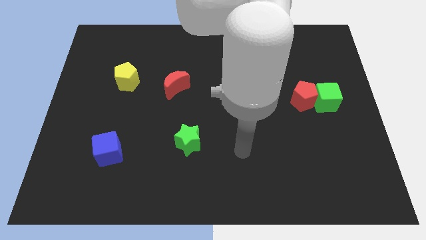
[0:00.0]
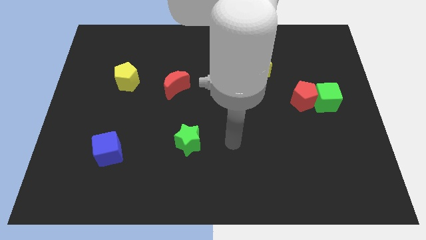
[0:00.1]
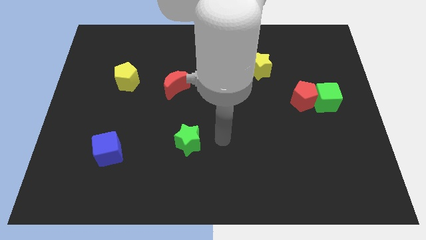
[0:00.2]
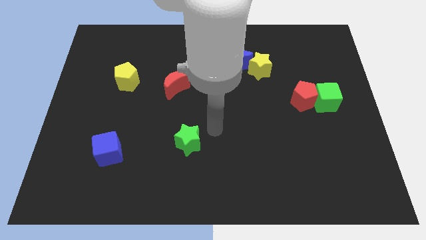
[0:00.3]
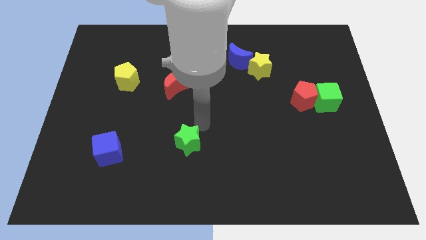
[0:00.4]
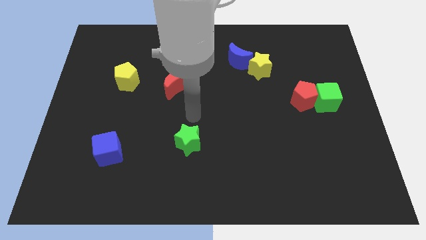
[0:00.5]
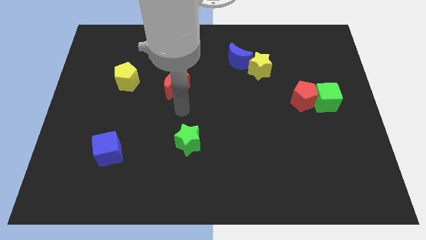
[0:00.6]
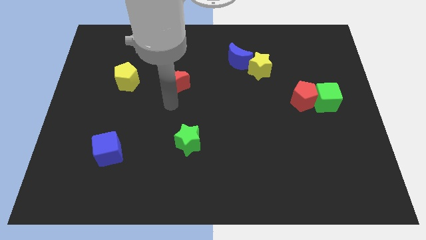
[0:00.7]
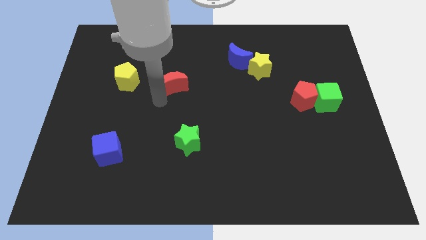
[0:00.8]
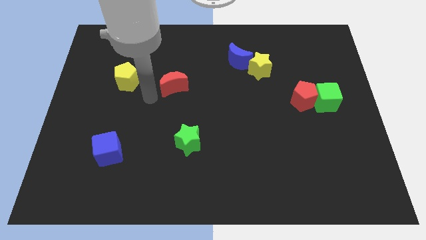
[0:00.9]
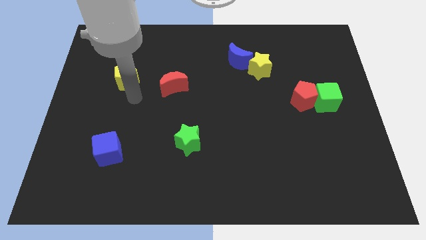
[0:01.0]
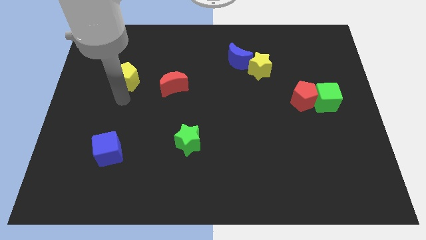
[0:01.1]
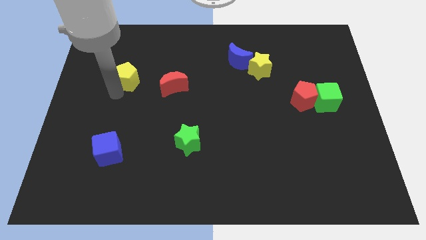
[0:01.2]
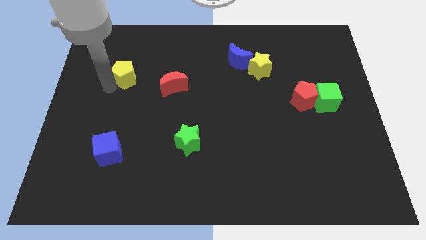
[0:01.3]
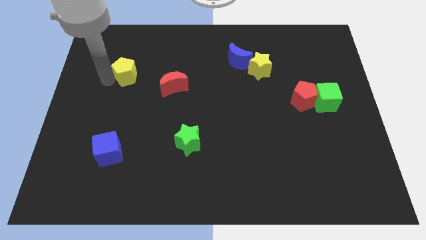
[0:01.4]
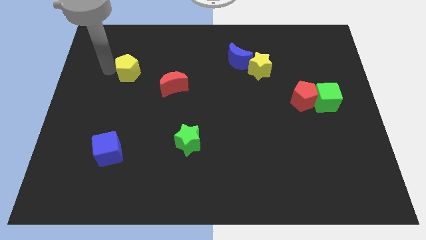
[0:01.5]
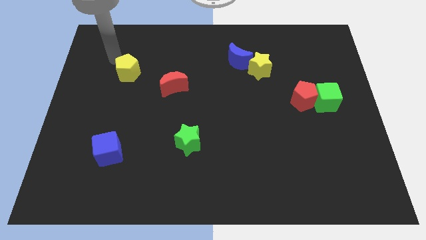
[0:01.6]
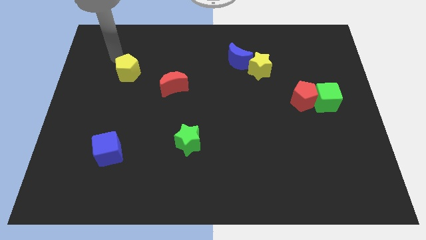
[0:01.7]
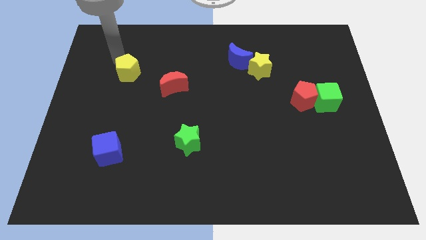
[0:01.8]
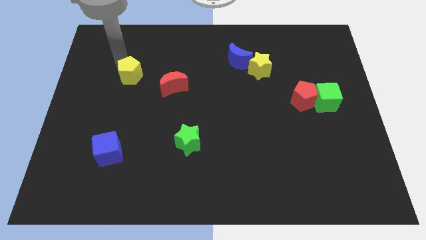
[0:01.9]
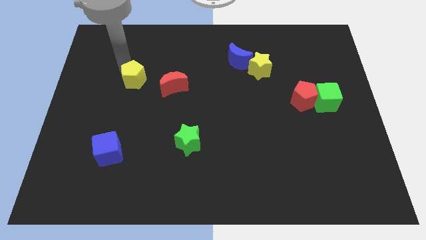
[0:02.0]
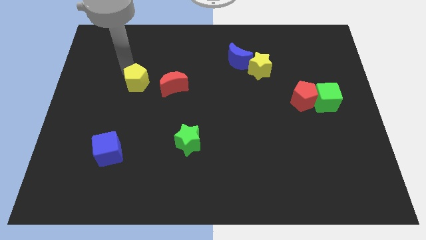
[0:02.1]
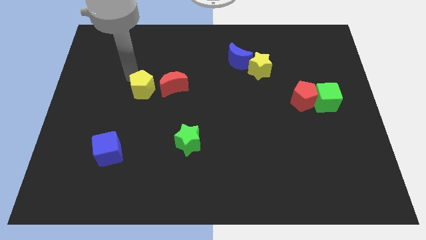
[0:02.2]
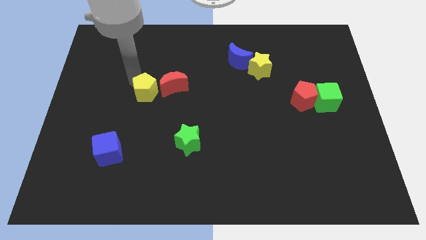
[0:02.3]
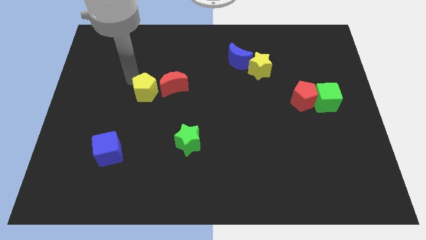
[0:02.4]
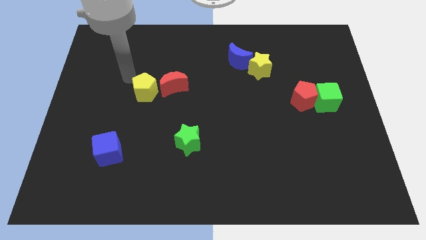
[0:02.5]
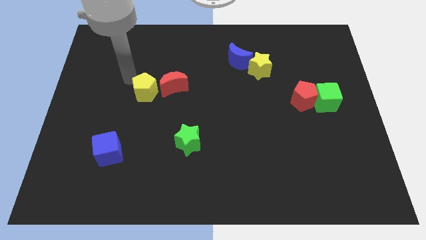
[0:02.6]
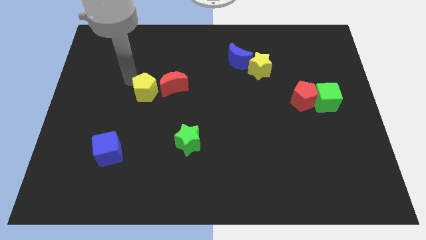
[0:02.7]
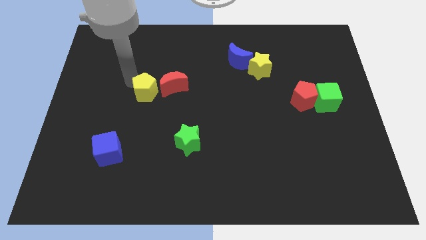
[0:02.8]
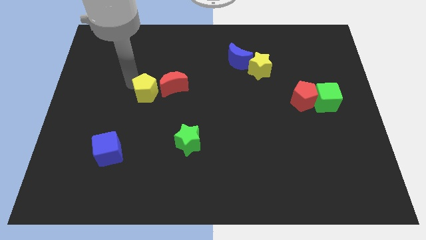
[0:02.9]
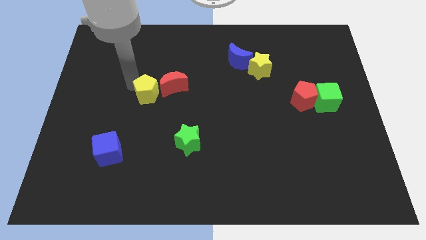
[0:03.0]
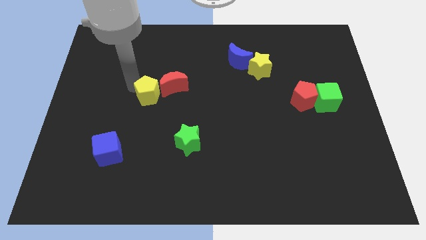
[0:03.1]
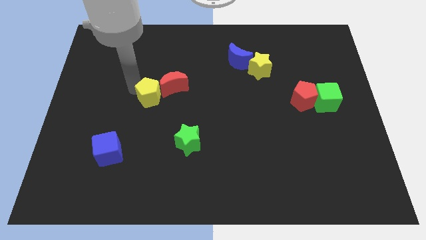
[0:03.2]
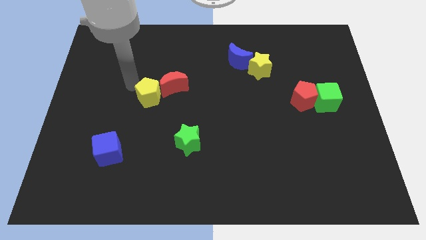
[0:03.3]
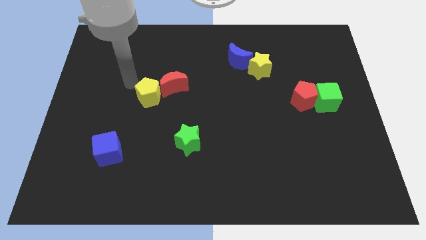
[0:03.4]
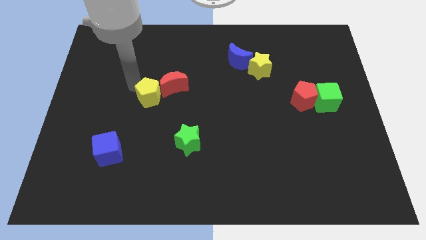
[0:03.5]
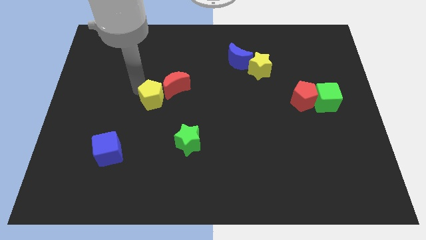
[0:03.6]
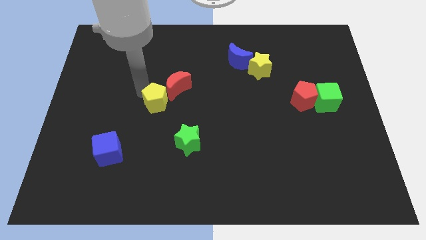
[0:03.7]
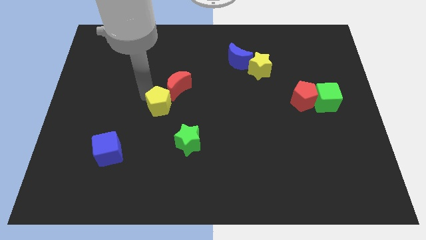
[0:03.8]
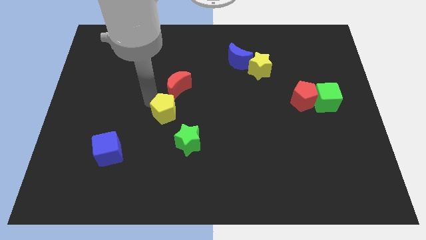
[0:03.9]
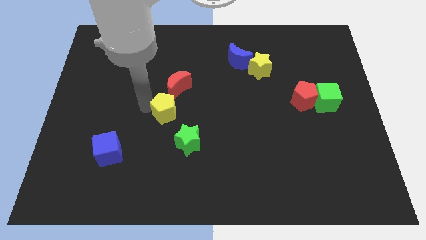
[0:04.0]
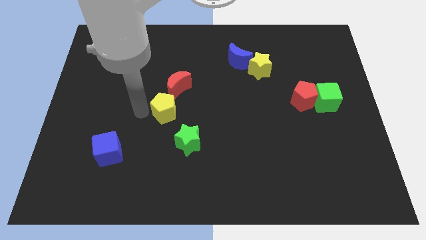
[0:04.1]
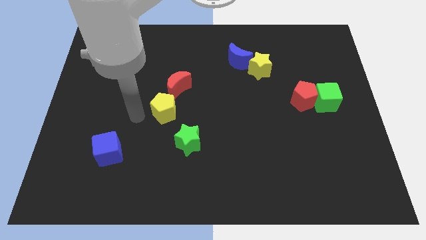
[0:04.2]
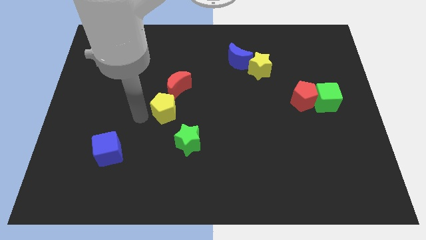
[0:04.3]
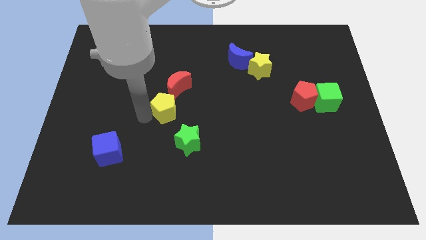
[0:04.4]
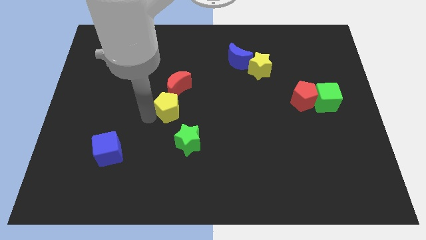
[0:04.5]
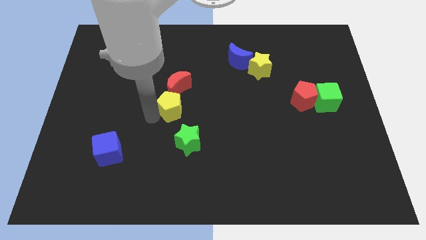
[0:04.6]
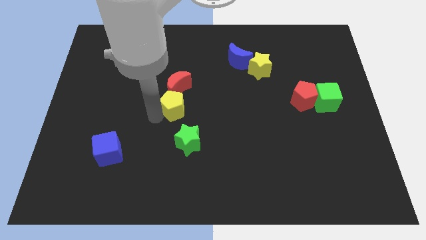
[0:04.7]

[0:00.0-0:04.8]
put the yellow pentagon to the bottom right side of the red moon

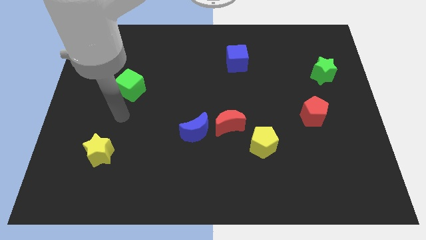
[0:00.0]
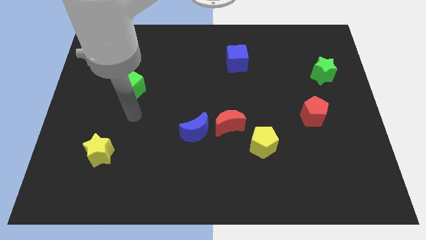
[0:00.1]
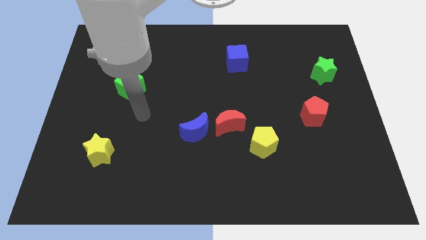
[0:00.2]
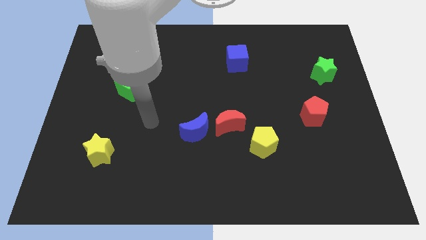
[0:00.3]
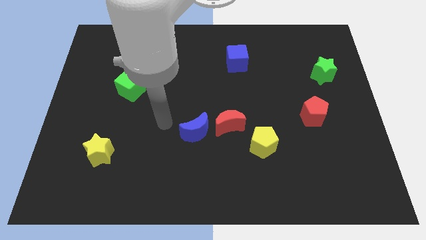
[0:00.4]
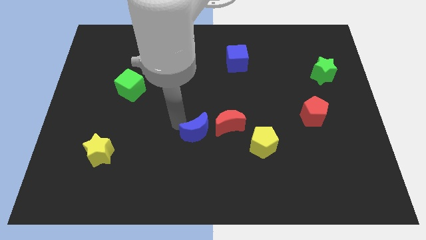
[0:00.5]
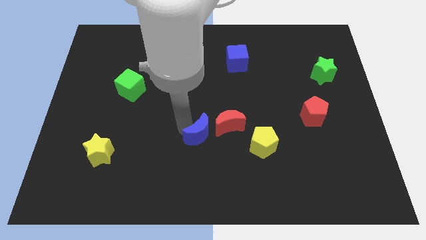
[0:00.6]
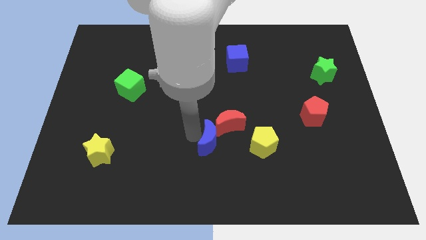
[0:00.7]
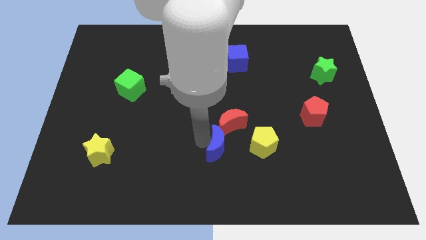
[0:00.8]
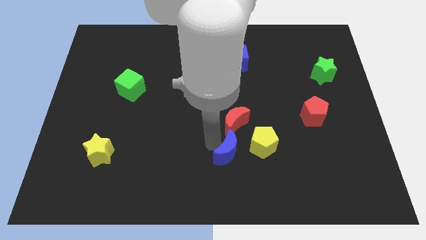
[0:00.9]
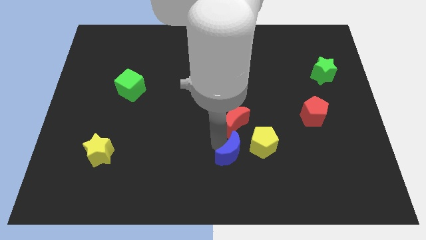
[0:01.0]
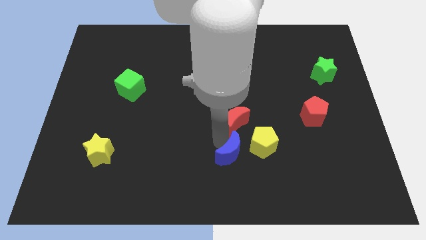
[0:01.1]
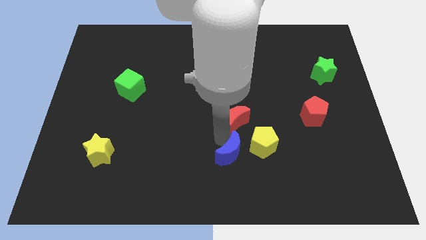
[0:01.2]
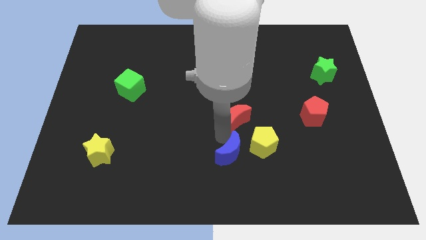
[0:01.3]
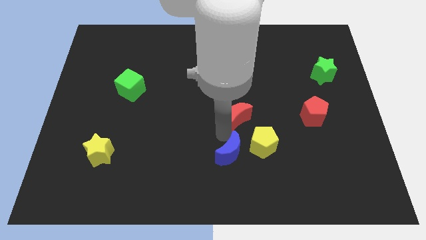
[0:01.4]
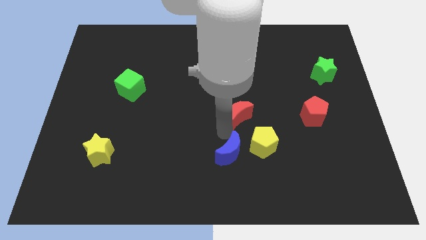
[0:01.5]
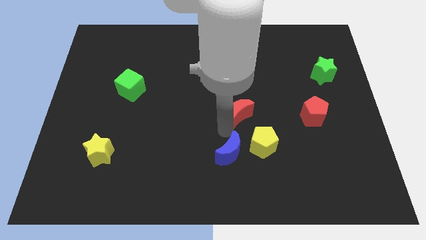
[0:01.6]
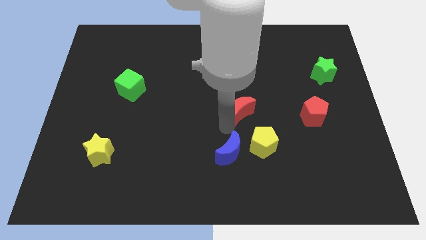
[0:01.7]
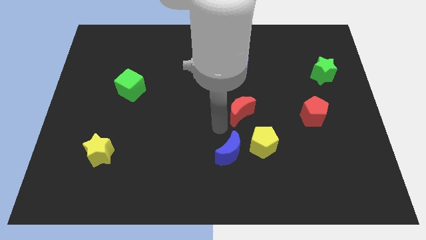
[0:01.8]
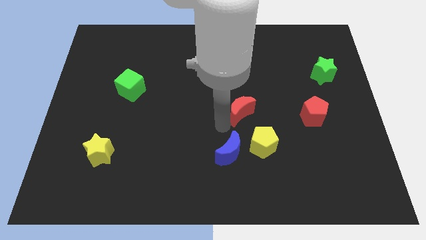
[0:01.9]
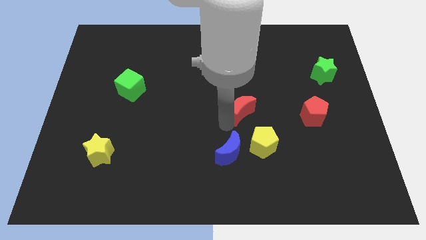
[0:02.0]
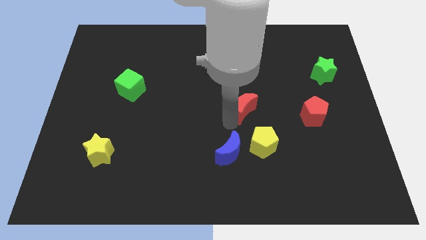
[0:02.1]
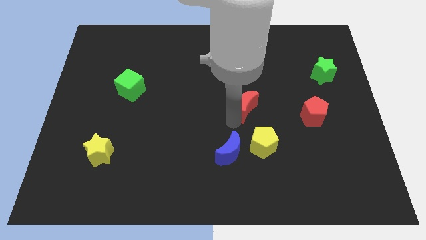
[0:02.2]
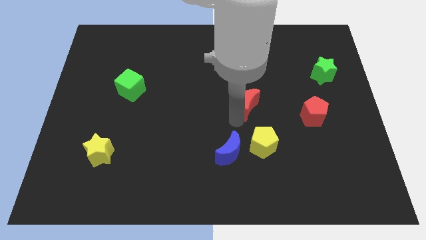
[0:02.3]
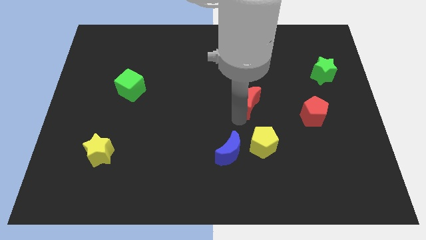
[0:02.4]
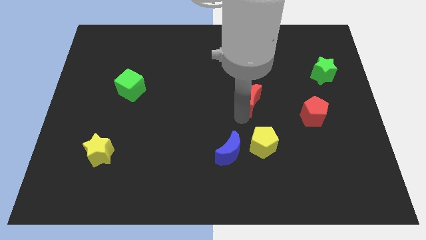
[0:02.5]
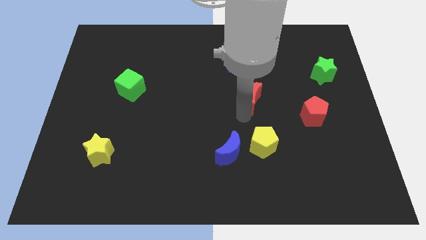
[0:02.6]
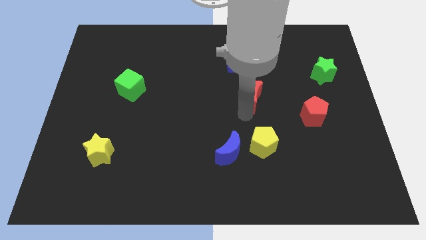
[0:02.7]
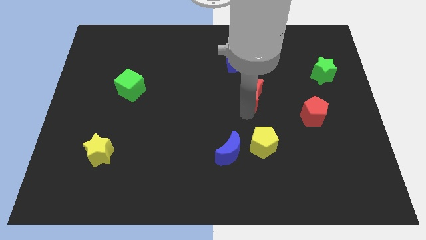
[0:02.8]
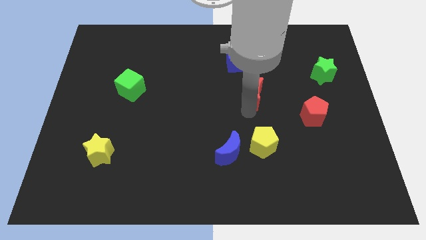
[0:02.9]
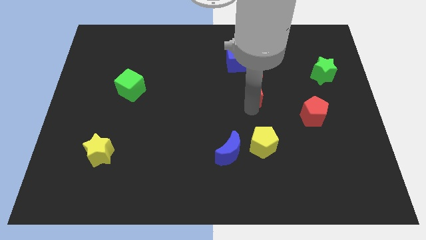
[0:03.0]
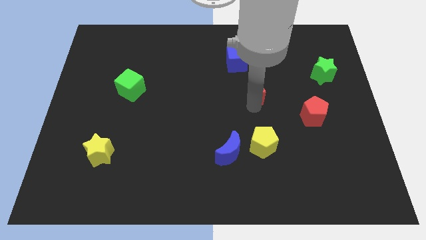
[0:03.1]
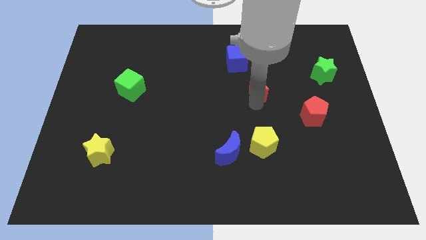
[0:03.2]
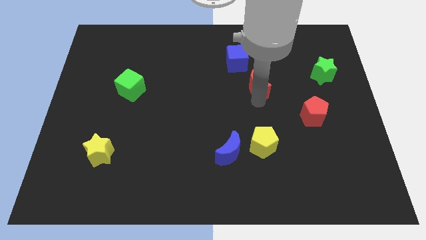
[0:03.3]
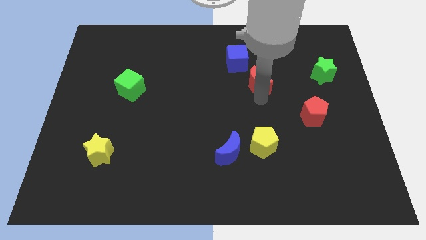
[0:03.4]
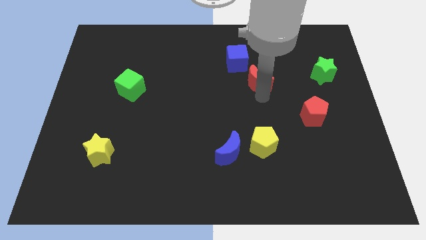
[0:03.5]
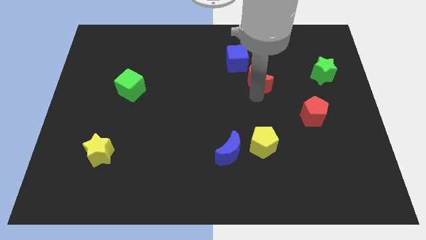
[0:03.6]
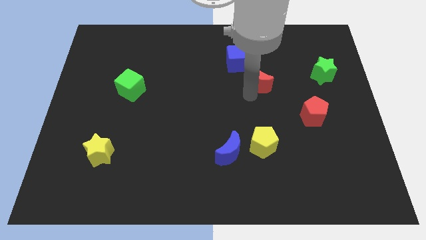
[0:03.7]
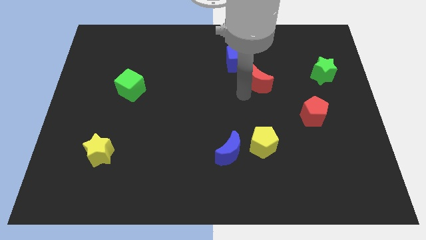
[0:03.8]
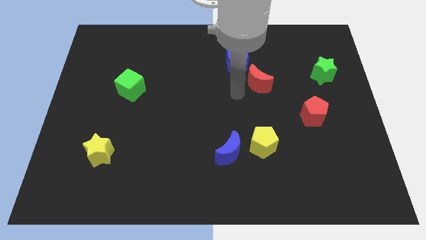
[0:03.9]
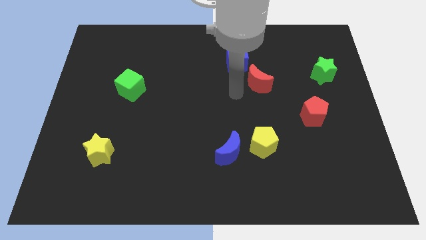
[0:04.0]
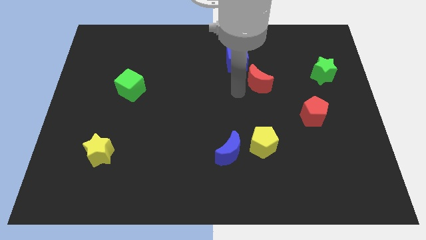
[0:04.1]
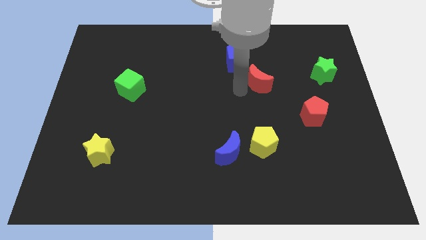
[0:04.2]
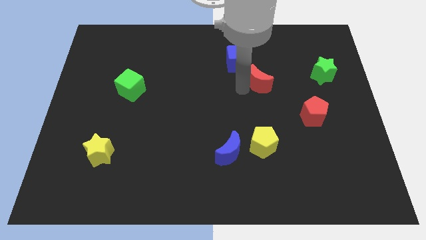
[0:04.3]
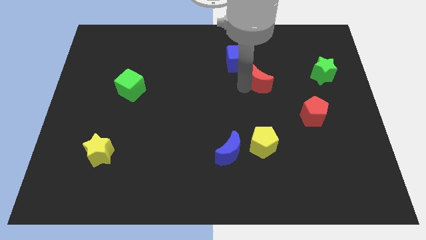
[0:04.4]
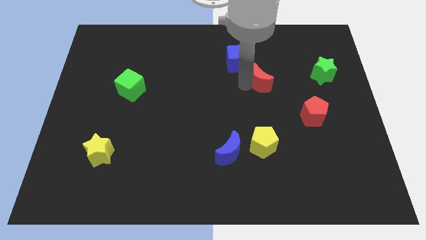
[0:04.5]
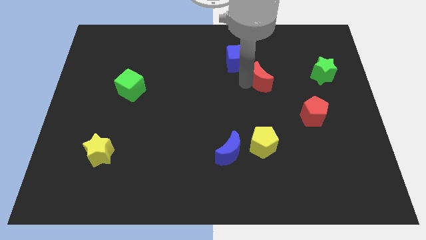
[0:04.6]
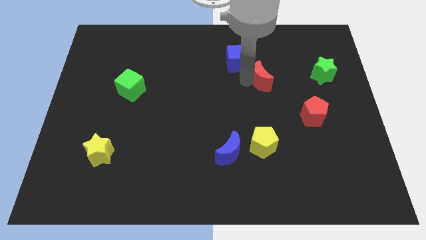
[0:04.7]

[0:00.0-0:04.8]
push the red moon left of the green star
